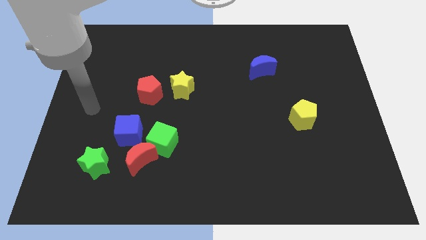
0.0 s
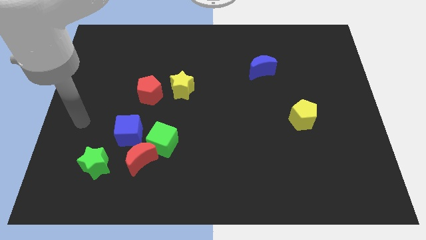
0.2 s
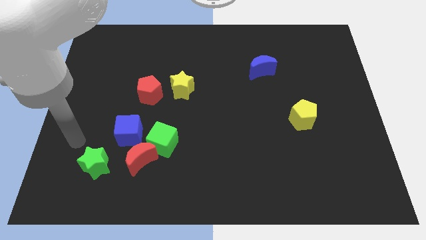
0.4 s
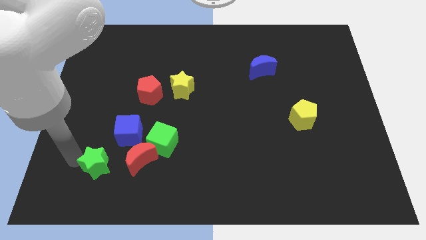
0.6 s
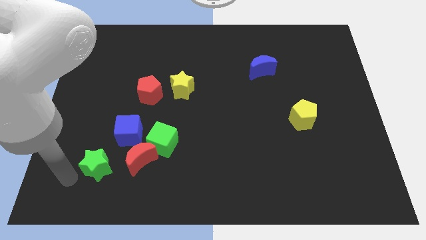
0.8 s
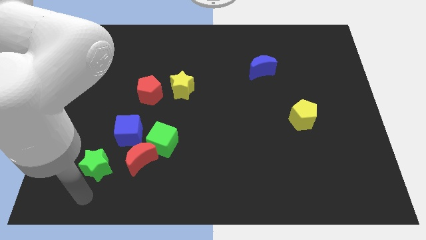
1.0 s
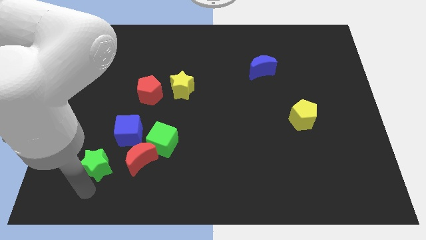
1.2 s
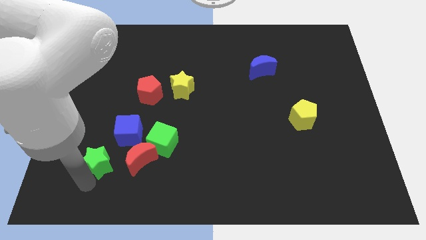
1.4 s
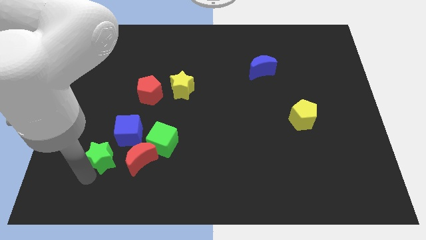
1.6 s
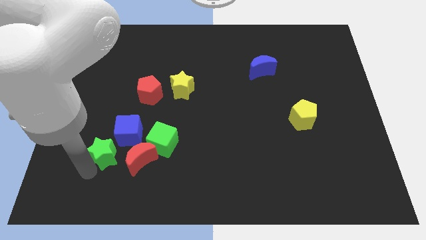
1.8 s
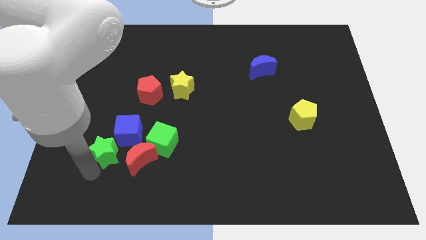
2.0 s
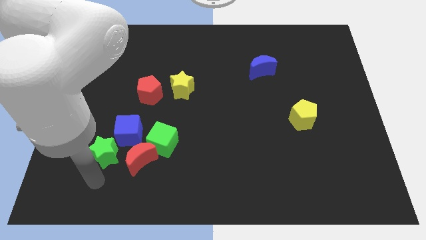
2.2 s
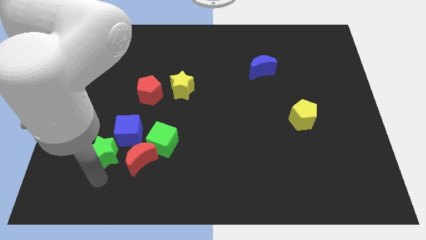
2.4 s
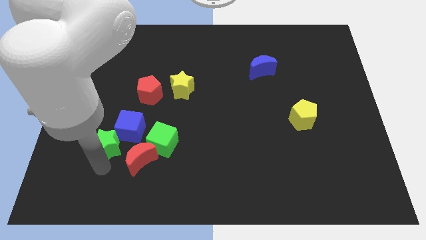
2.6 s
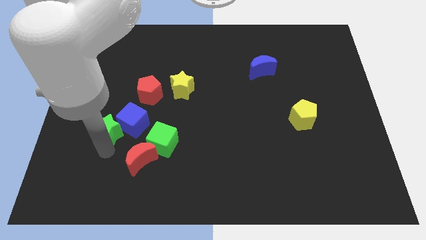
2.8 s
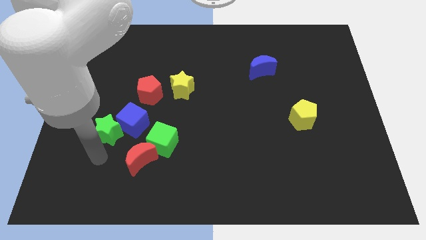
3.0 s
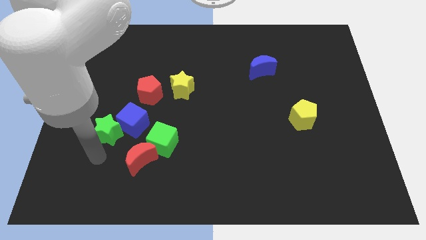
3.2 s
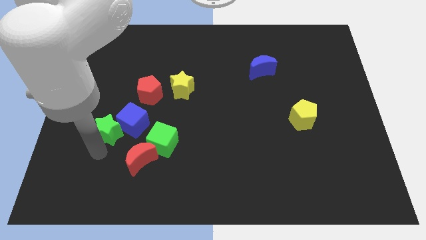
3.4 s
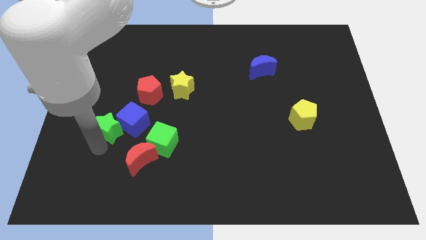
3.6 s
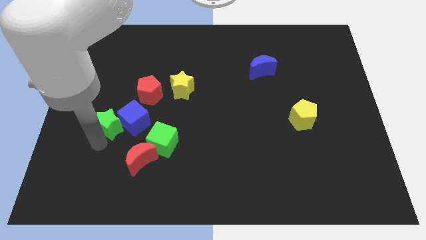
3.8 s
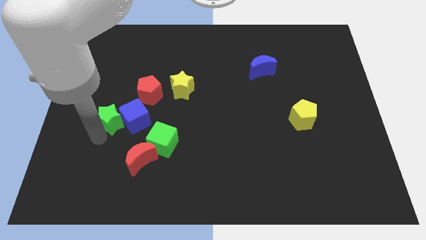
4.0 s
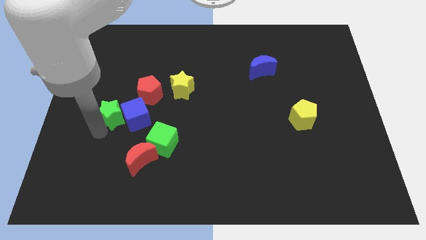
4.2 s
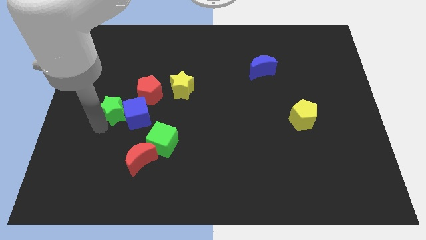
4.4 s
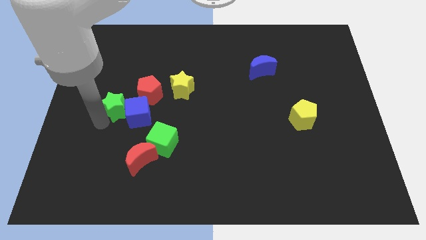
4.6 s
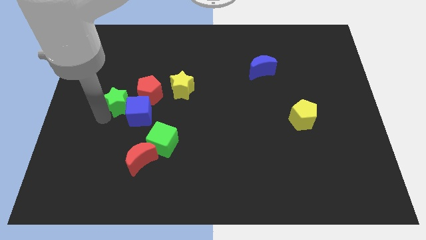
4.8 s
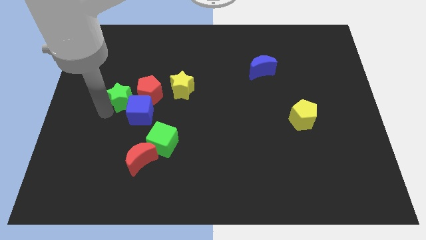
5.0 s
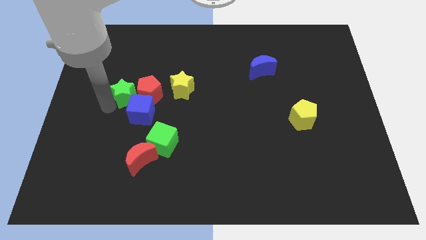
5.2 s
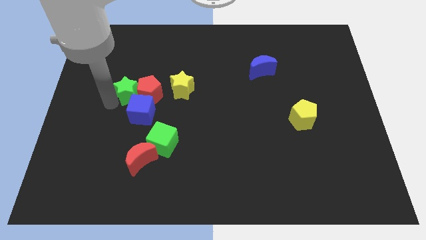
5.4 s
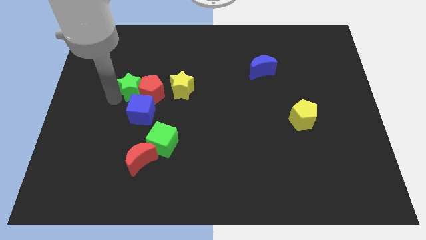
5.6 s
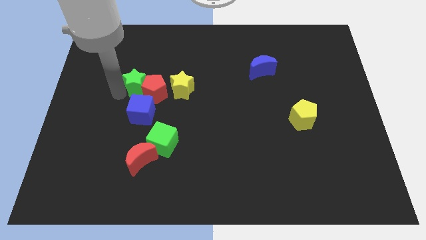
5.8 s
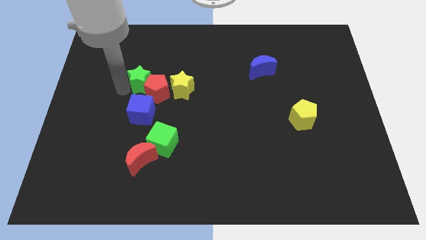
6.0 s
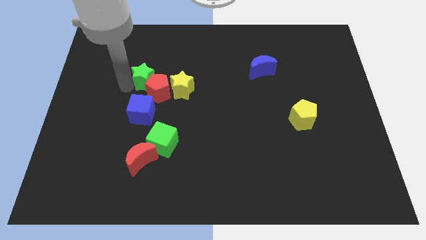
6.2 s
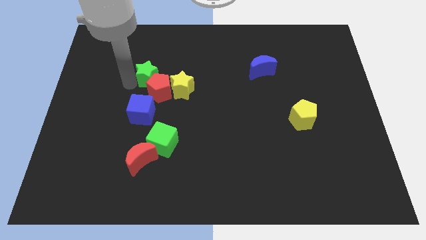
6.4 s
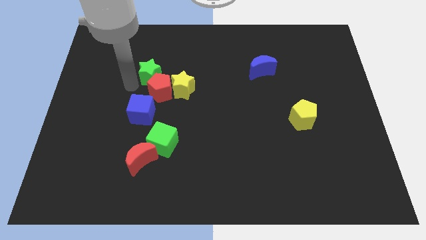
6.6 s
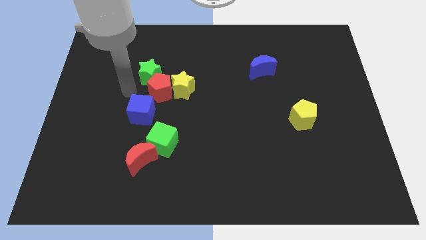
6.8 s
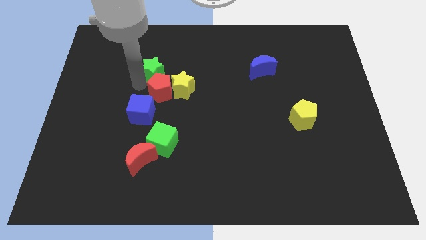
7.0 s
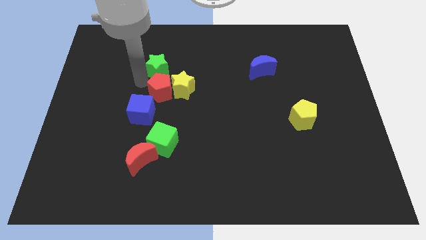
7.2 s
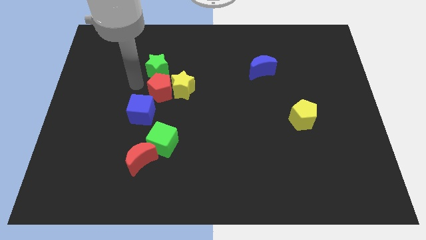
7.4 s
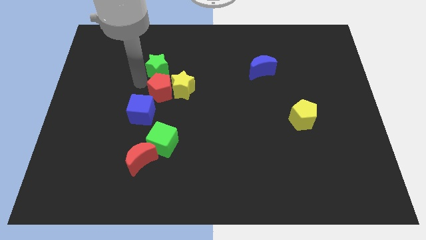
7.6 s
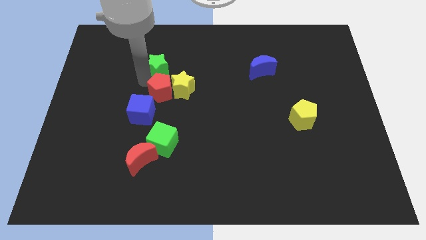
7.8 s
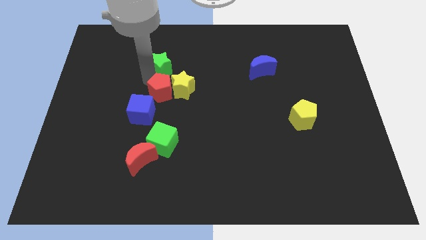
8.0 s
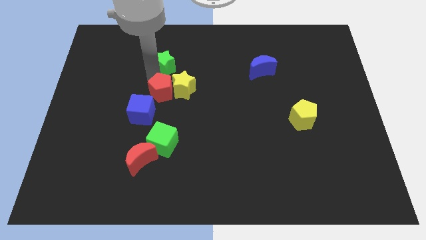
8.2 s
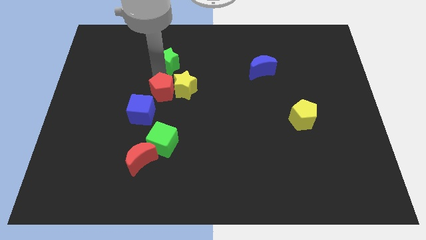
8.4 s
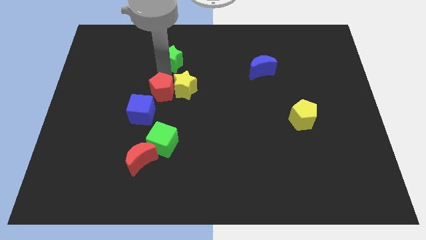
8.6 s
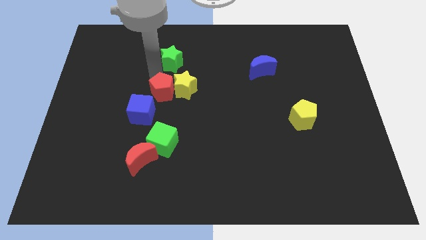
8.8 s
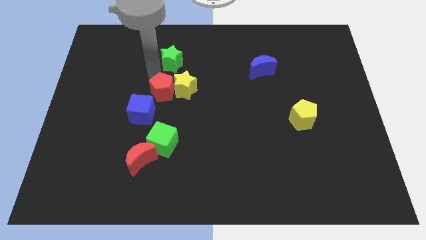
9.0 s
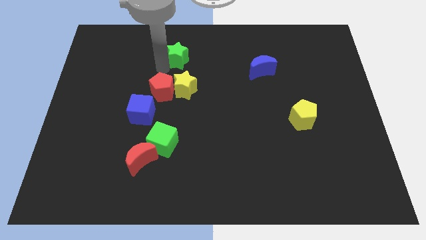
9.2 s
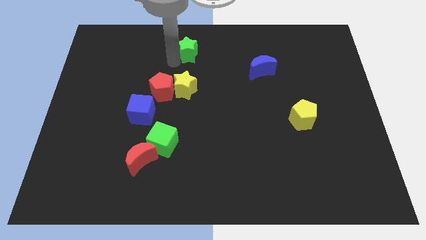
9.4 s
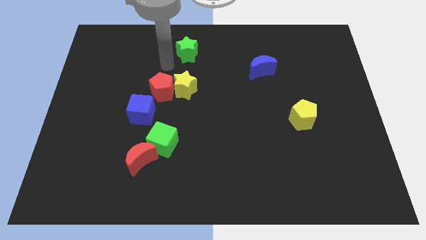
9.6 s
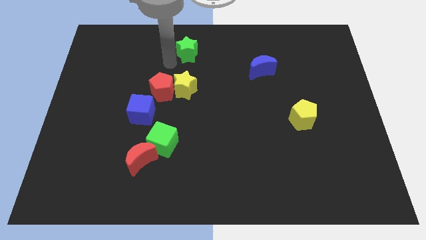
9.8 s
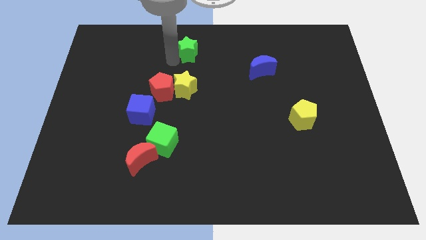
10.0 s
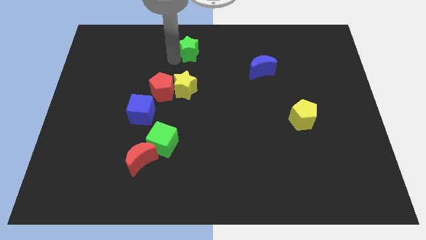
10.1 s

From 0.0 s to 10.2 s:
slide the green star to the top

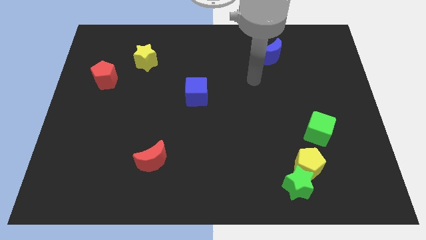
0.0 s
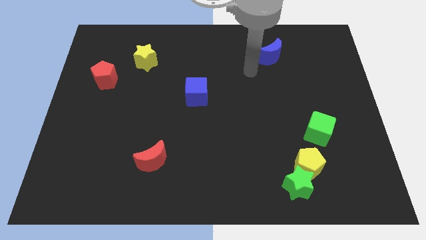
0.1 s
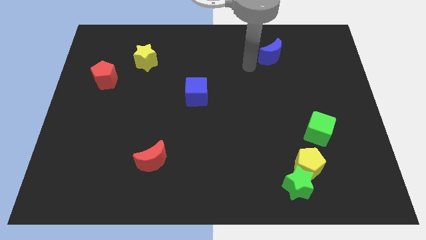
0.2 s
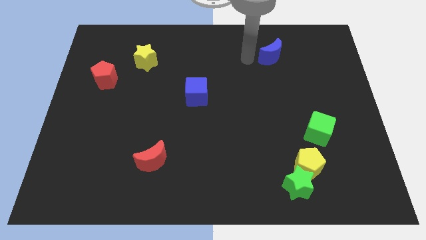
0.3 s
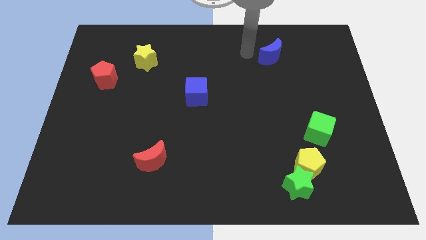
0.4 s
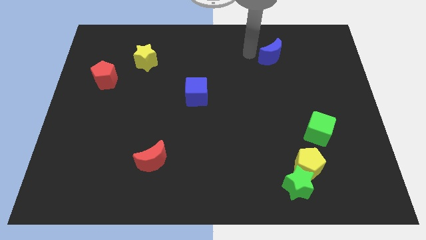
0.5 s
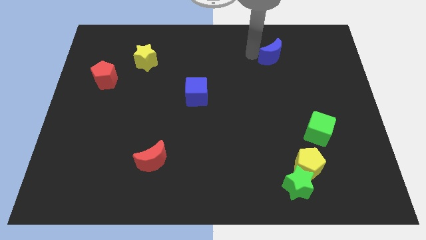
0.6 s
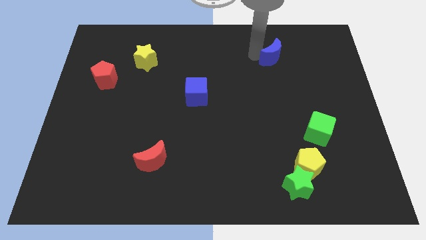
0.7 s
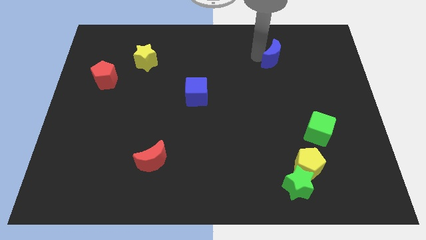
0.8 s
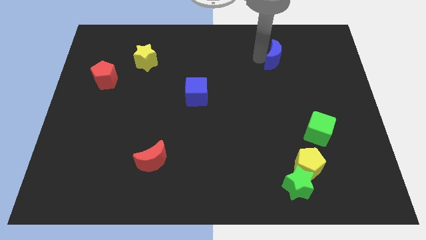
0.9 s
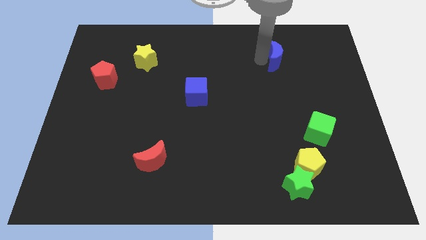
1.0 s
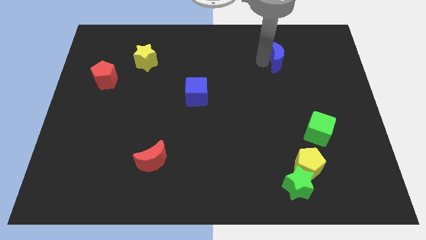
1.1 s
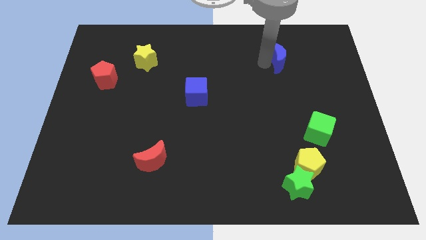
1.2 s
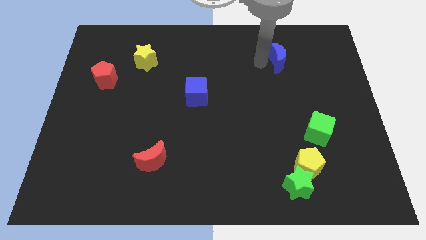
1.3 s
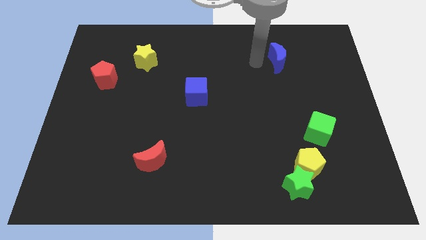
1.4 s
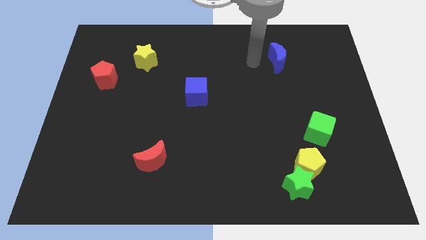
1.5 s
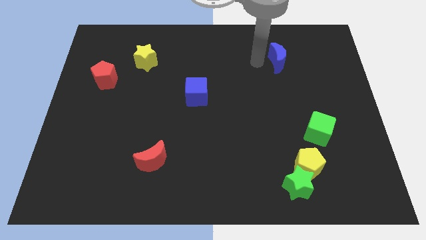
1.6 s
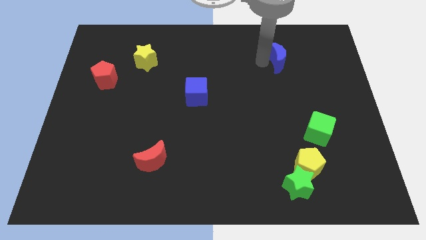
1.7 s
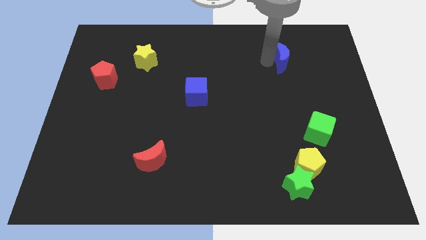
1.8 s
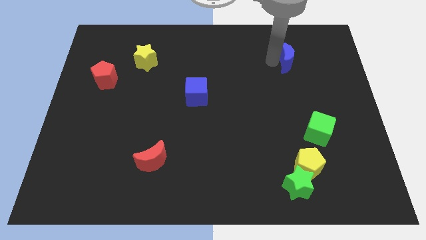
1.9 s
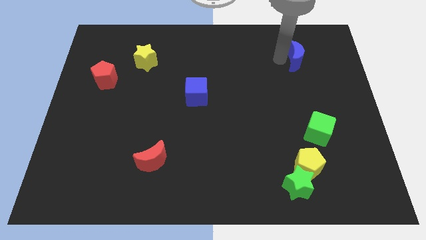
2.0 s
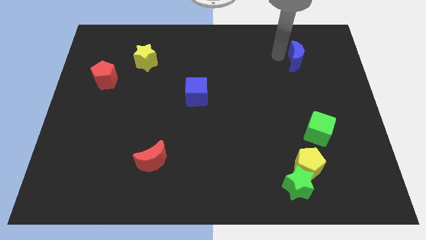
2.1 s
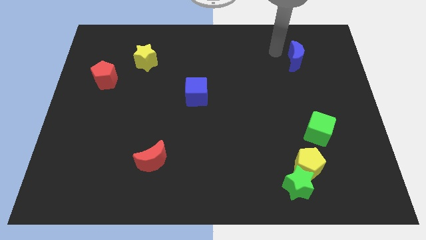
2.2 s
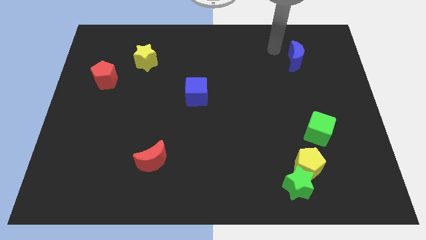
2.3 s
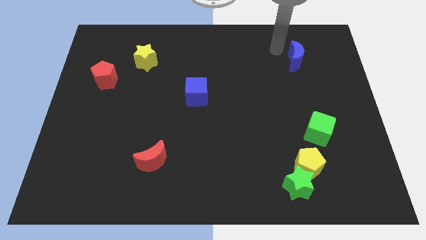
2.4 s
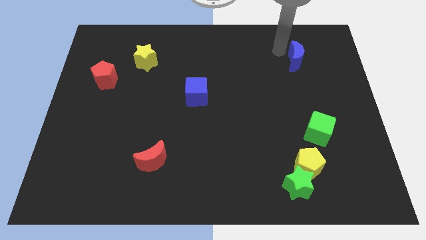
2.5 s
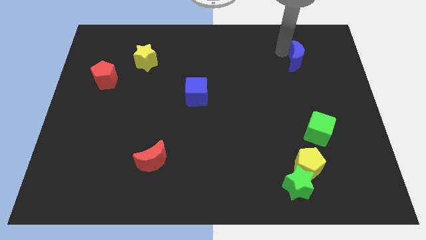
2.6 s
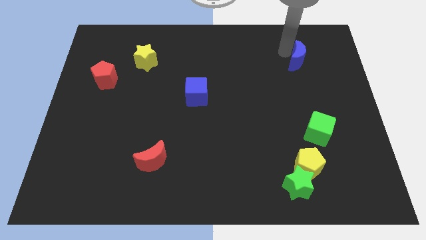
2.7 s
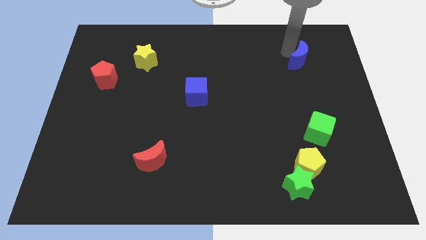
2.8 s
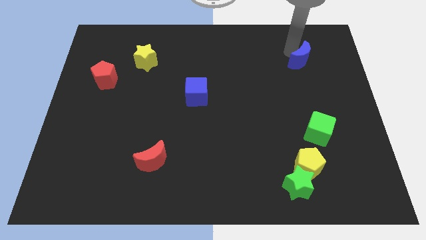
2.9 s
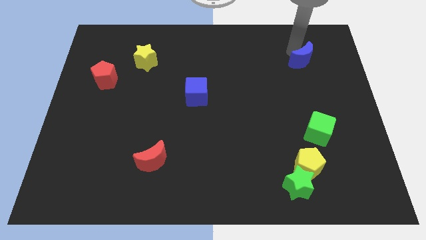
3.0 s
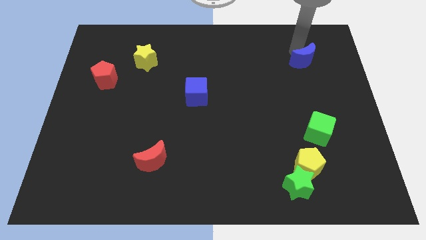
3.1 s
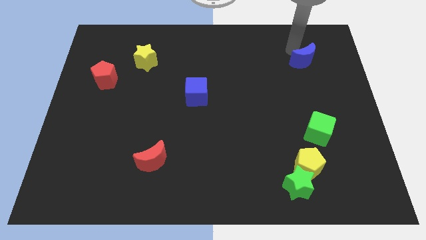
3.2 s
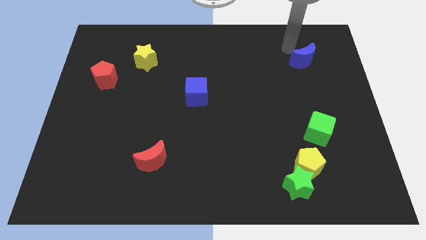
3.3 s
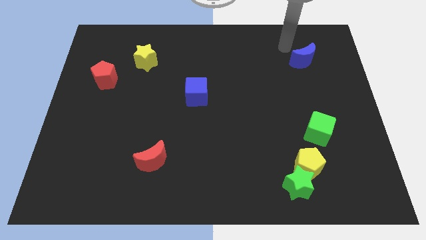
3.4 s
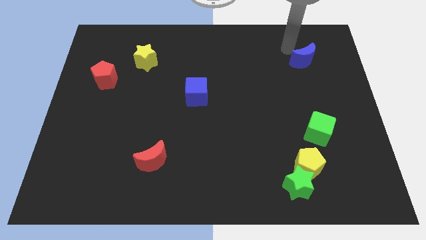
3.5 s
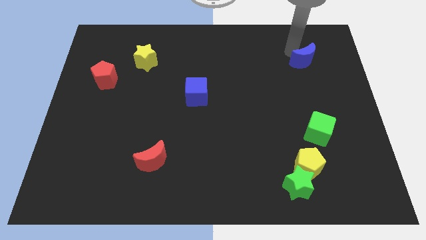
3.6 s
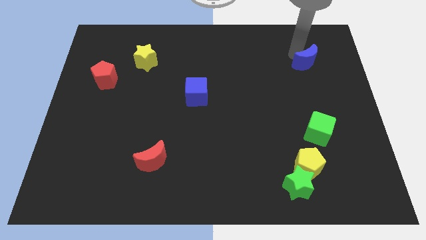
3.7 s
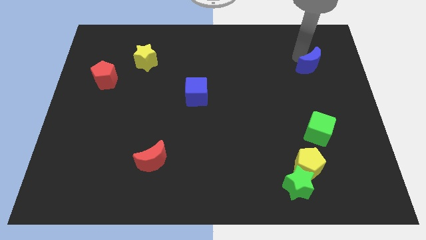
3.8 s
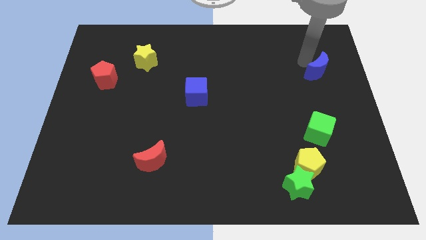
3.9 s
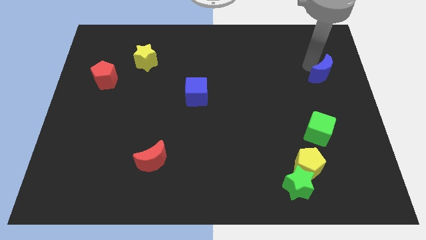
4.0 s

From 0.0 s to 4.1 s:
push the blue moon to the center right
